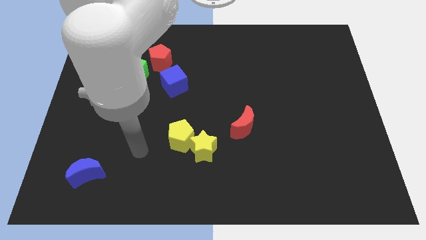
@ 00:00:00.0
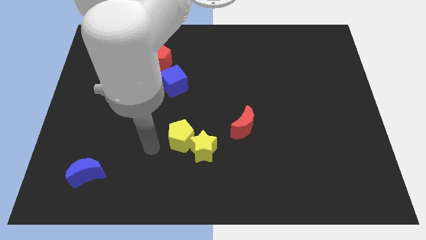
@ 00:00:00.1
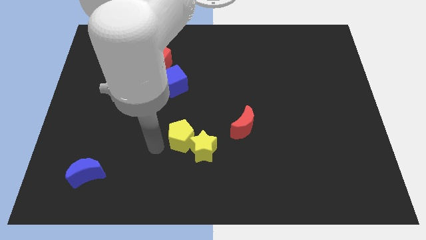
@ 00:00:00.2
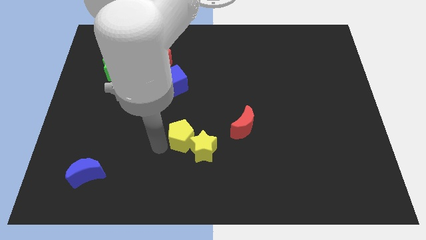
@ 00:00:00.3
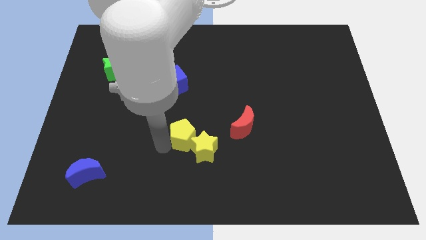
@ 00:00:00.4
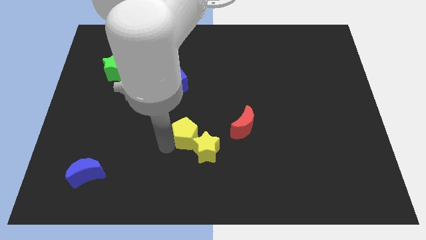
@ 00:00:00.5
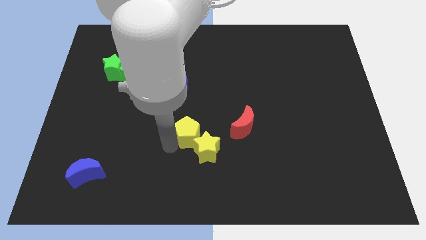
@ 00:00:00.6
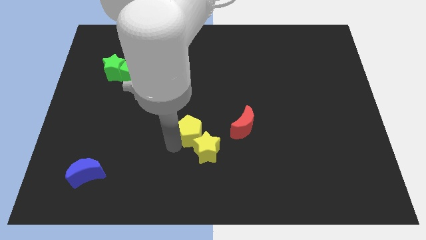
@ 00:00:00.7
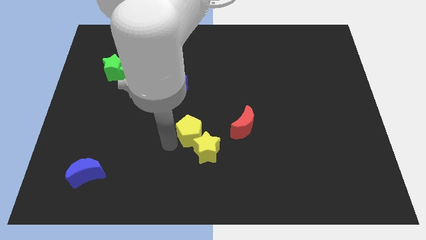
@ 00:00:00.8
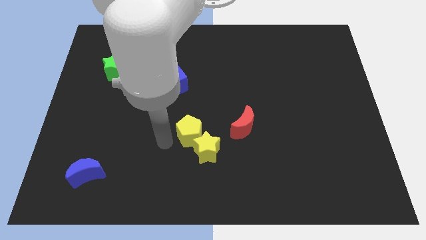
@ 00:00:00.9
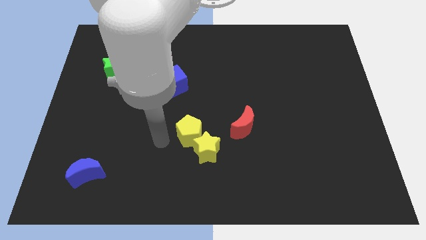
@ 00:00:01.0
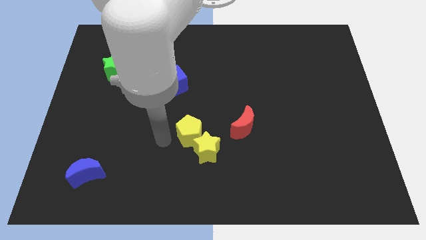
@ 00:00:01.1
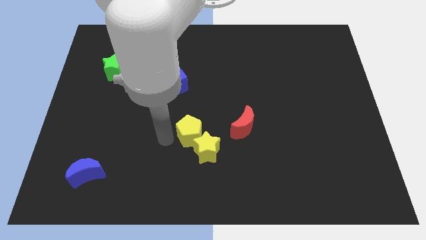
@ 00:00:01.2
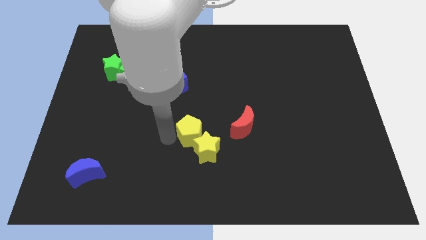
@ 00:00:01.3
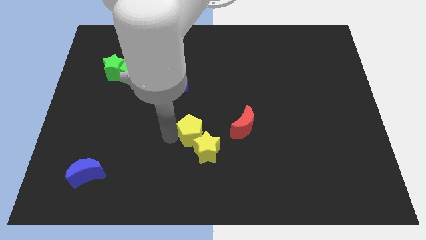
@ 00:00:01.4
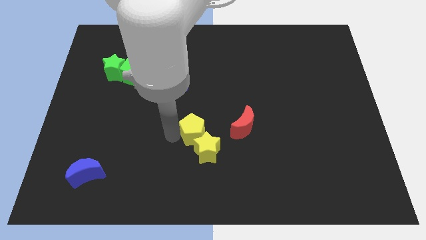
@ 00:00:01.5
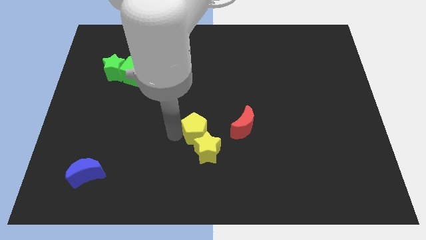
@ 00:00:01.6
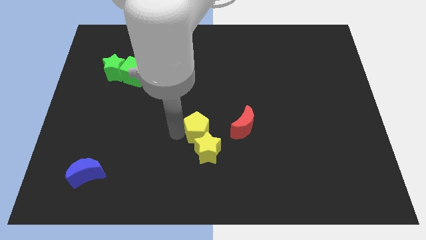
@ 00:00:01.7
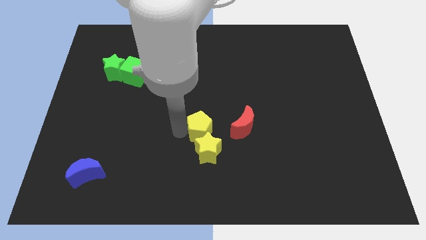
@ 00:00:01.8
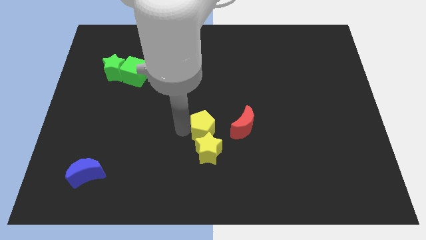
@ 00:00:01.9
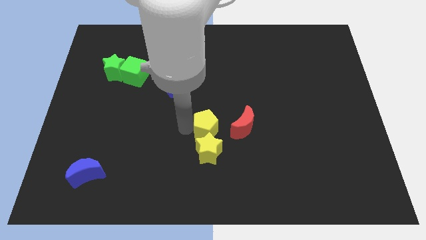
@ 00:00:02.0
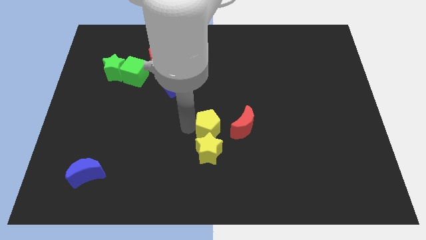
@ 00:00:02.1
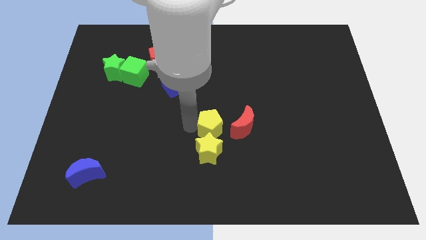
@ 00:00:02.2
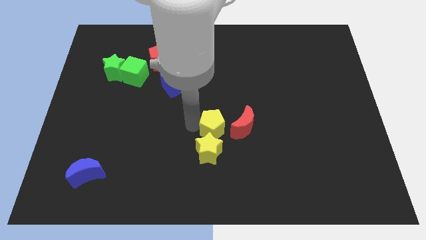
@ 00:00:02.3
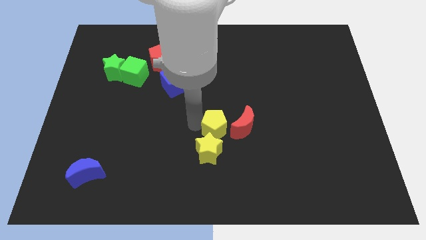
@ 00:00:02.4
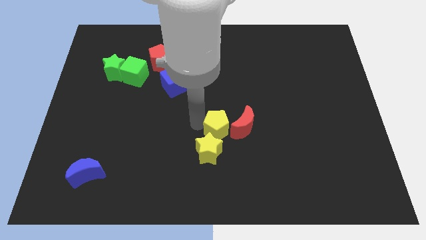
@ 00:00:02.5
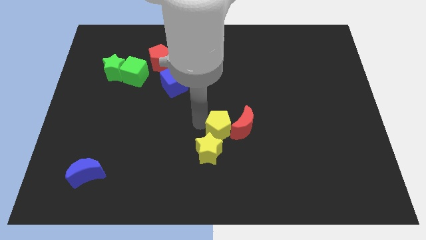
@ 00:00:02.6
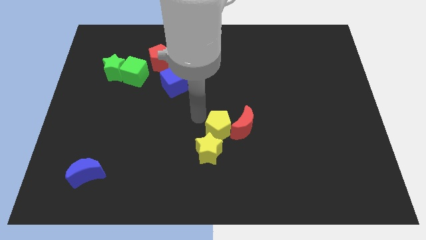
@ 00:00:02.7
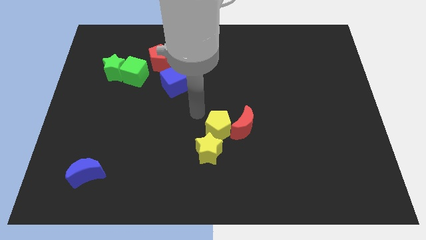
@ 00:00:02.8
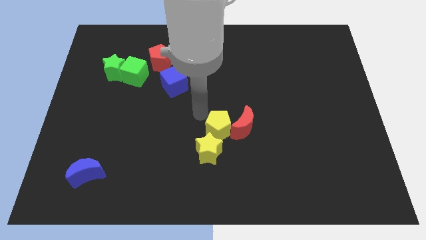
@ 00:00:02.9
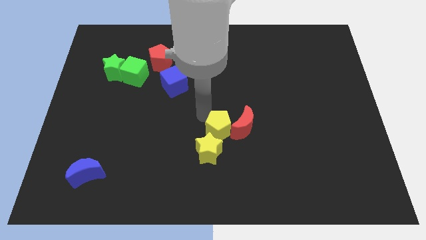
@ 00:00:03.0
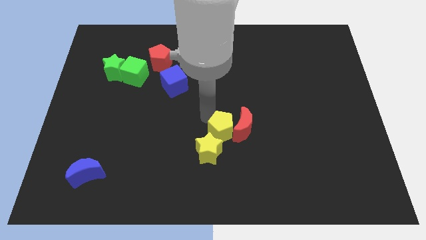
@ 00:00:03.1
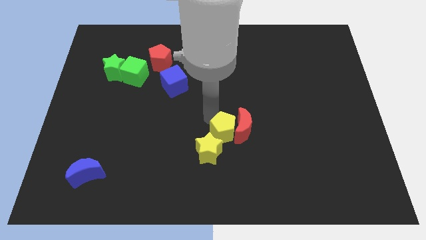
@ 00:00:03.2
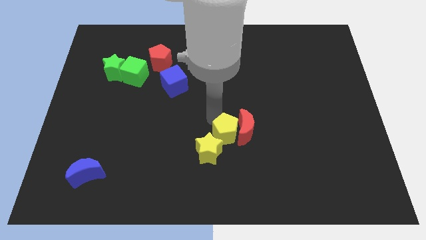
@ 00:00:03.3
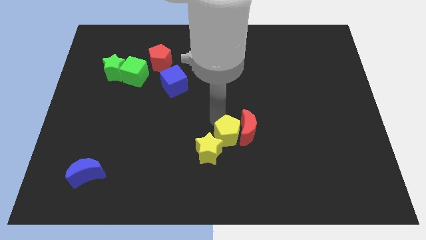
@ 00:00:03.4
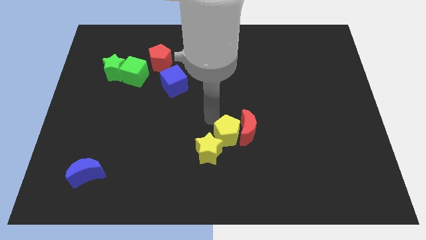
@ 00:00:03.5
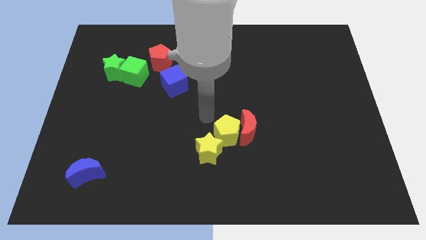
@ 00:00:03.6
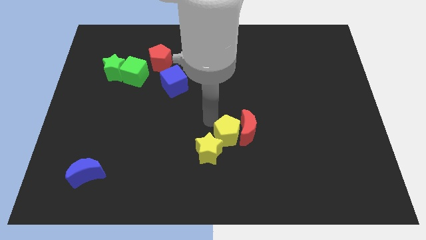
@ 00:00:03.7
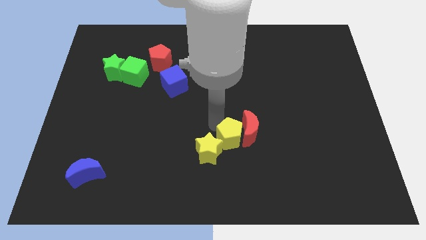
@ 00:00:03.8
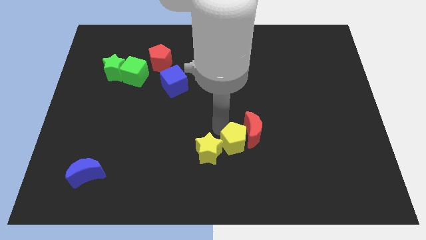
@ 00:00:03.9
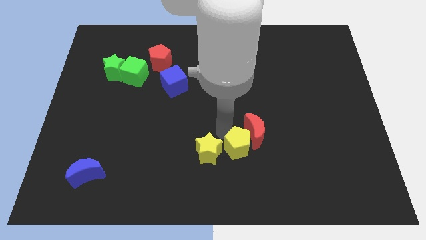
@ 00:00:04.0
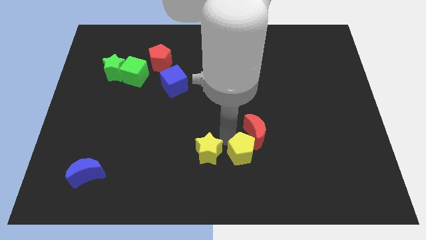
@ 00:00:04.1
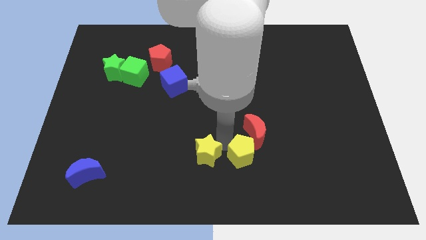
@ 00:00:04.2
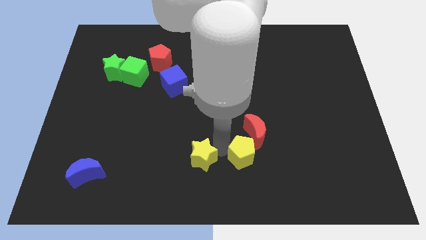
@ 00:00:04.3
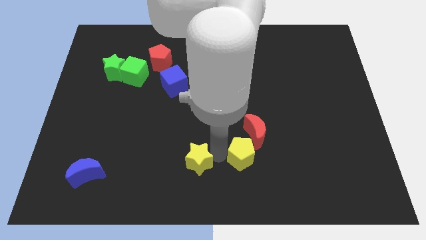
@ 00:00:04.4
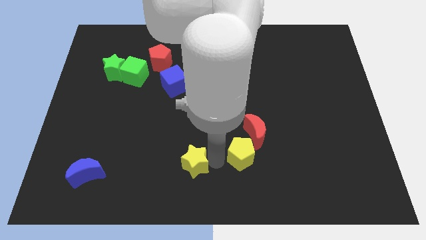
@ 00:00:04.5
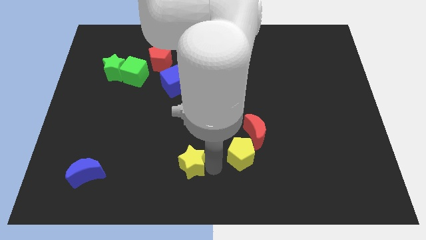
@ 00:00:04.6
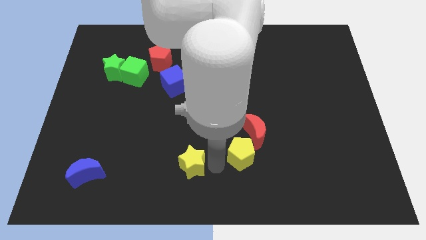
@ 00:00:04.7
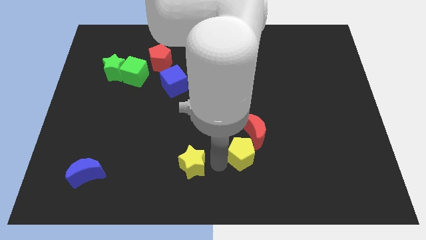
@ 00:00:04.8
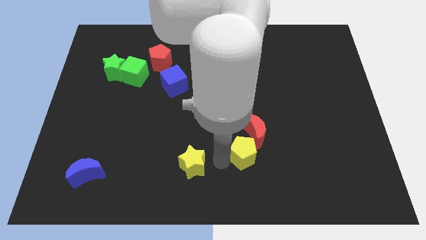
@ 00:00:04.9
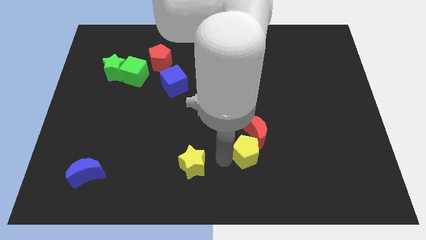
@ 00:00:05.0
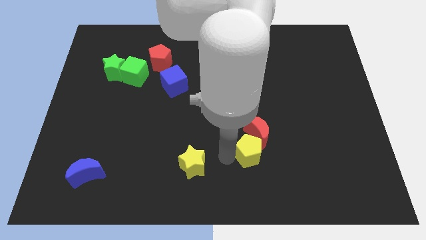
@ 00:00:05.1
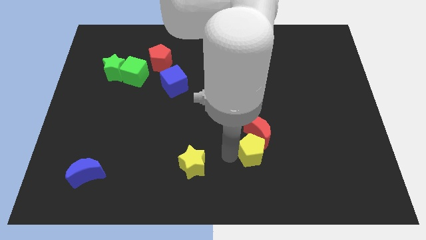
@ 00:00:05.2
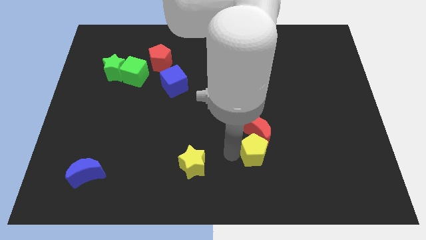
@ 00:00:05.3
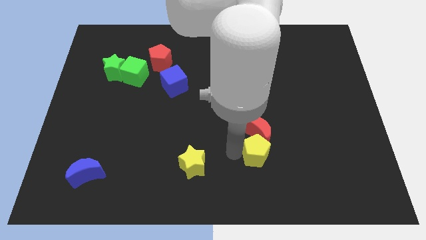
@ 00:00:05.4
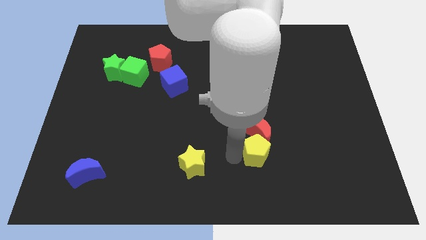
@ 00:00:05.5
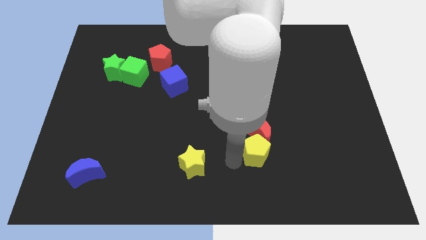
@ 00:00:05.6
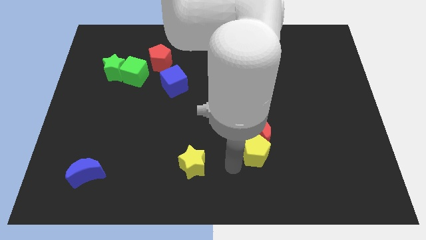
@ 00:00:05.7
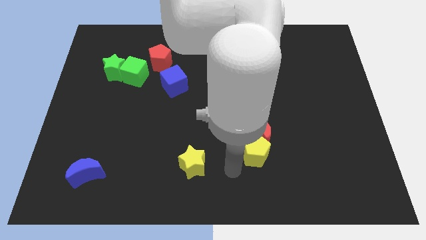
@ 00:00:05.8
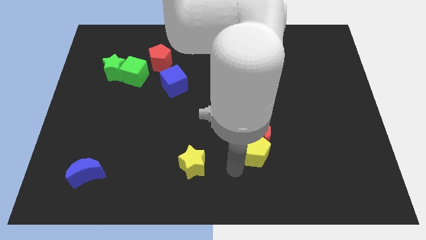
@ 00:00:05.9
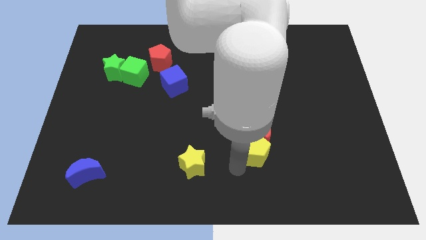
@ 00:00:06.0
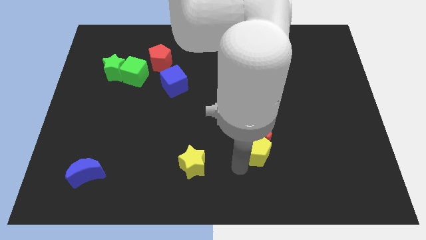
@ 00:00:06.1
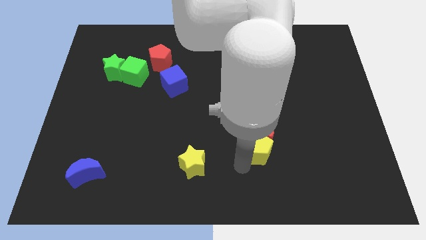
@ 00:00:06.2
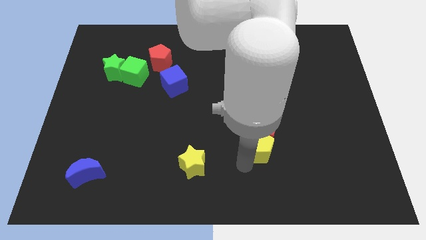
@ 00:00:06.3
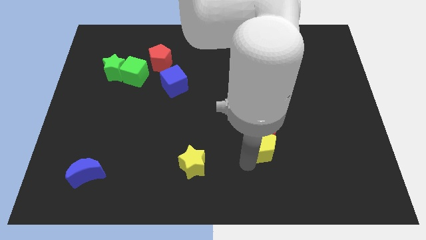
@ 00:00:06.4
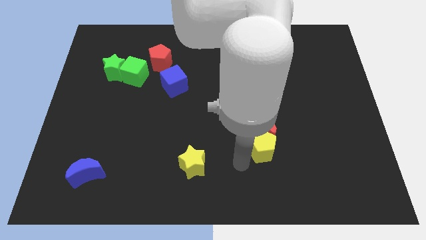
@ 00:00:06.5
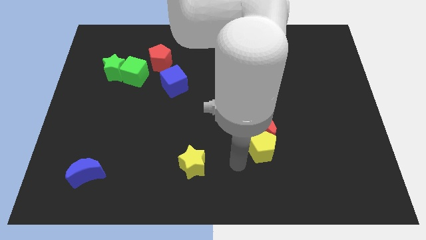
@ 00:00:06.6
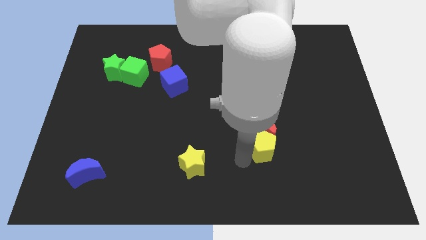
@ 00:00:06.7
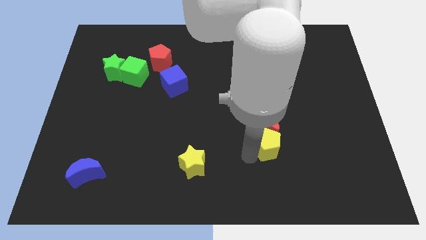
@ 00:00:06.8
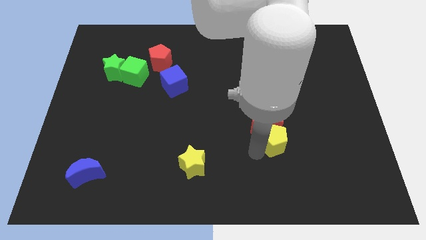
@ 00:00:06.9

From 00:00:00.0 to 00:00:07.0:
push the yellow pentagon to the right

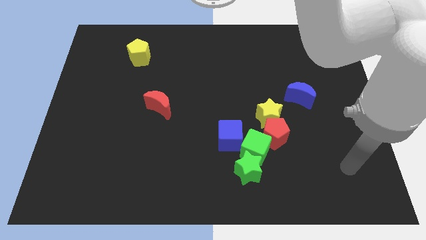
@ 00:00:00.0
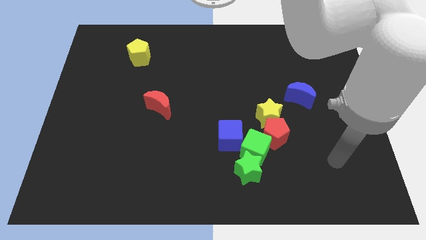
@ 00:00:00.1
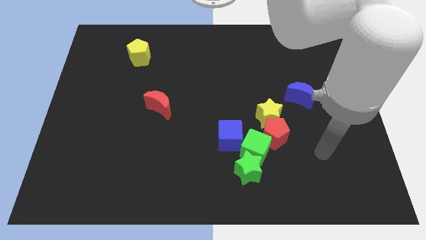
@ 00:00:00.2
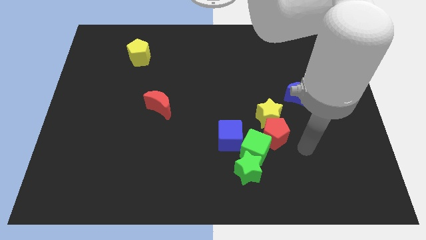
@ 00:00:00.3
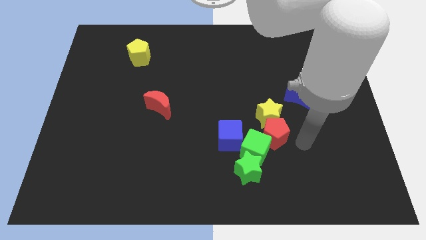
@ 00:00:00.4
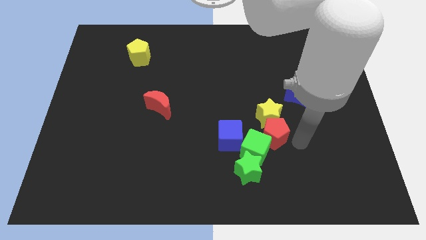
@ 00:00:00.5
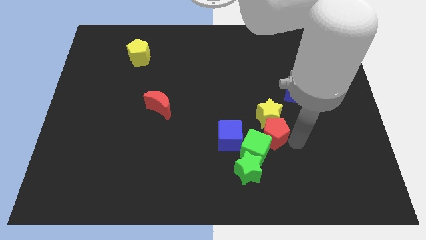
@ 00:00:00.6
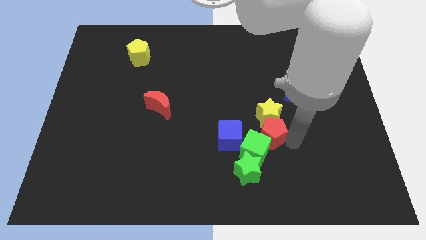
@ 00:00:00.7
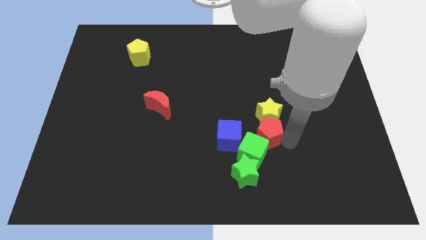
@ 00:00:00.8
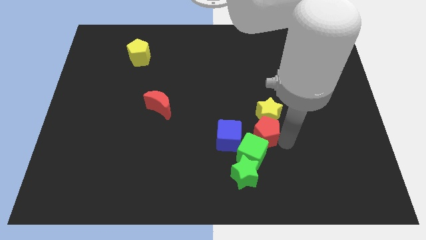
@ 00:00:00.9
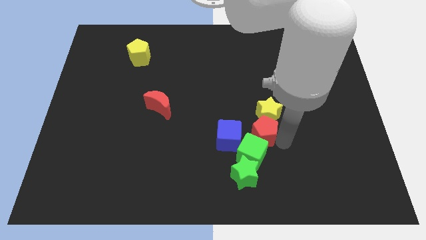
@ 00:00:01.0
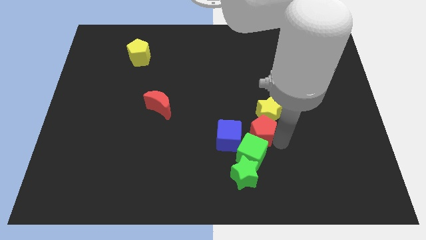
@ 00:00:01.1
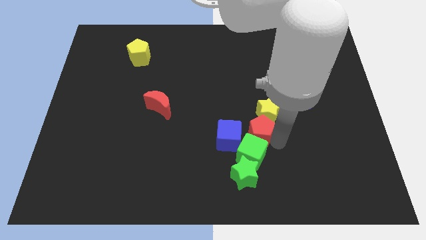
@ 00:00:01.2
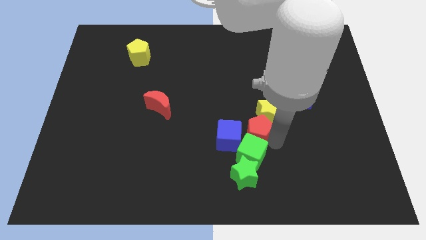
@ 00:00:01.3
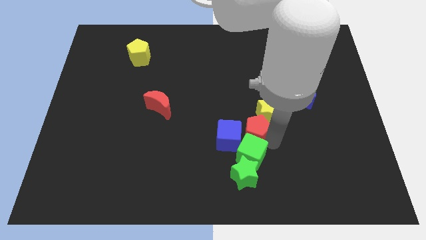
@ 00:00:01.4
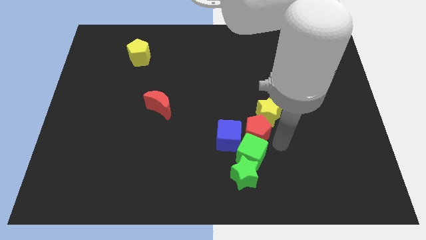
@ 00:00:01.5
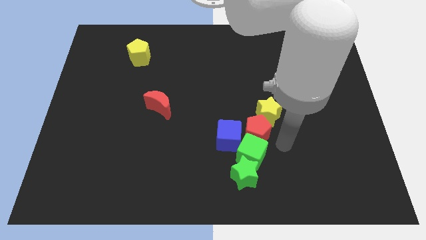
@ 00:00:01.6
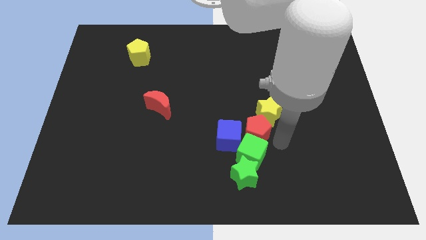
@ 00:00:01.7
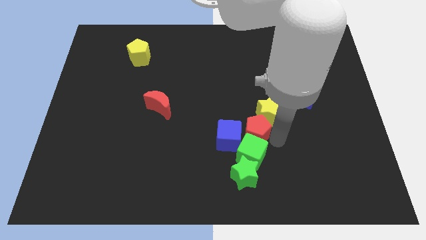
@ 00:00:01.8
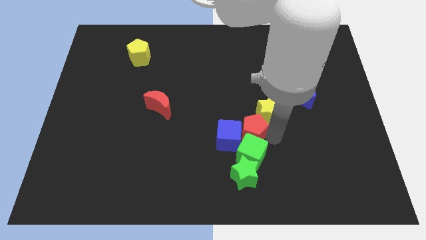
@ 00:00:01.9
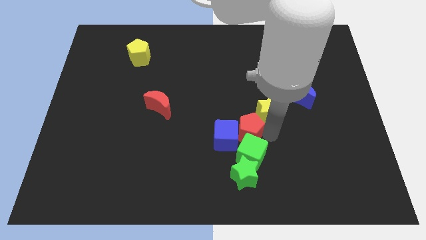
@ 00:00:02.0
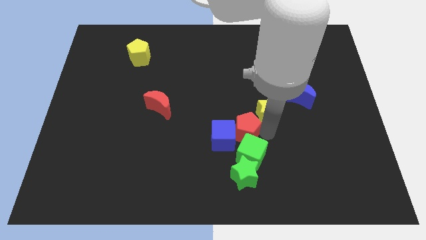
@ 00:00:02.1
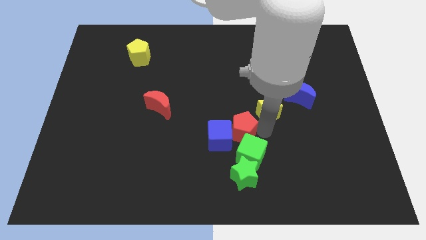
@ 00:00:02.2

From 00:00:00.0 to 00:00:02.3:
slide the red pentagon left somewhat
